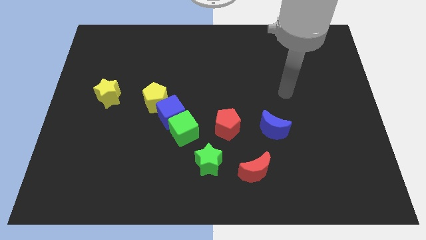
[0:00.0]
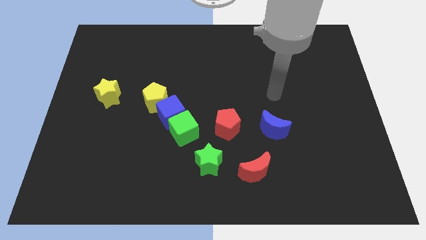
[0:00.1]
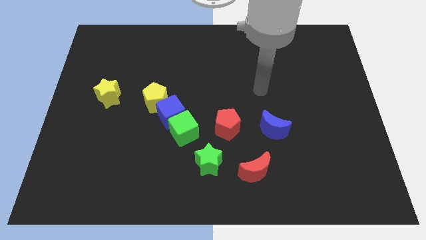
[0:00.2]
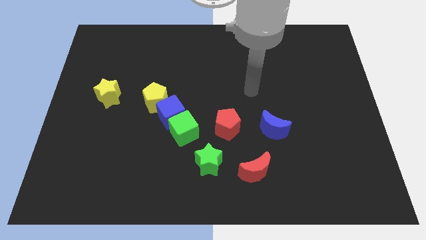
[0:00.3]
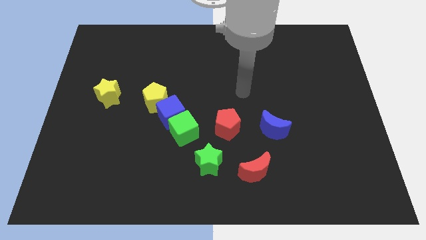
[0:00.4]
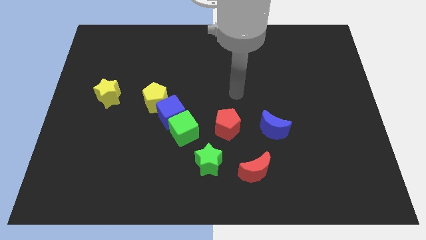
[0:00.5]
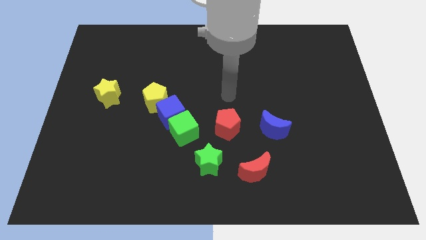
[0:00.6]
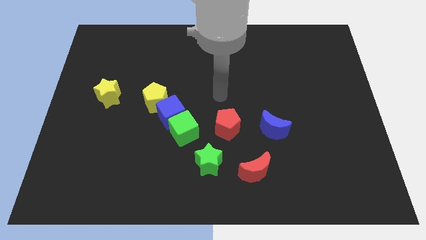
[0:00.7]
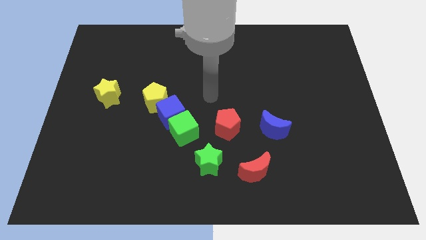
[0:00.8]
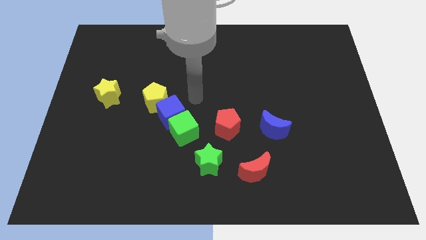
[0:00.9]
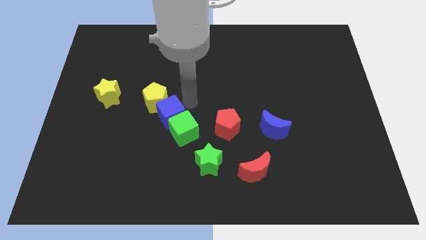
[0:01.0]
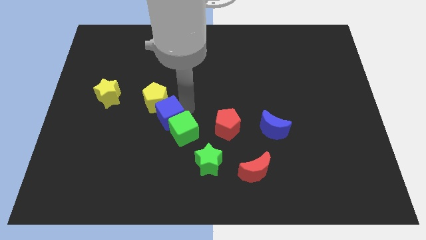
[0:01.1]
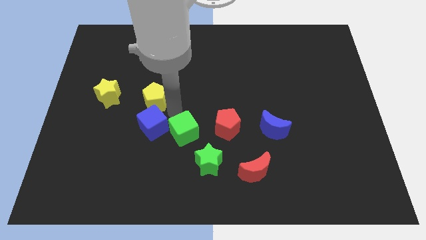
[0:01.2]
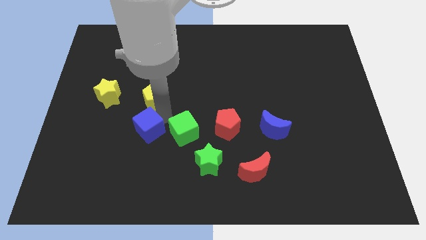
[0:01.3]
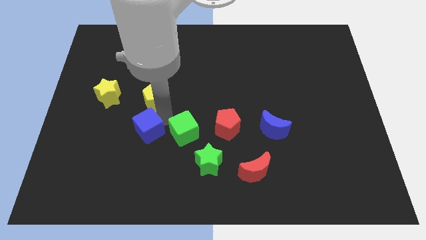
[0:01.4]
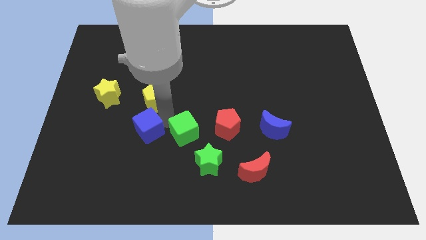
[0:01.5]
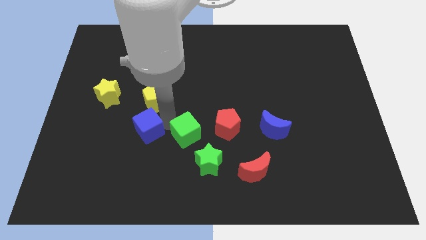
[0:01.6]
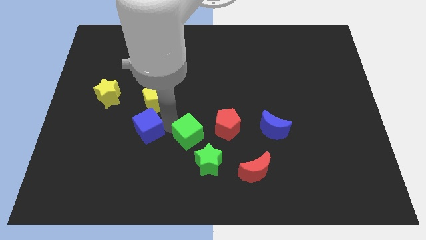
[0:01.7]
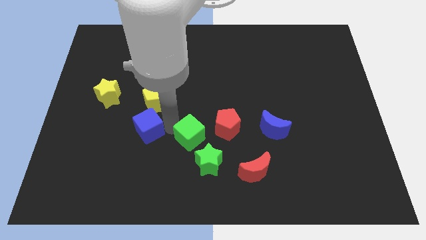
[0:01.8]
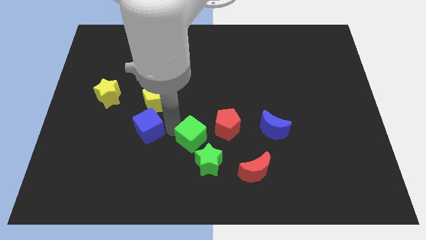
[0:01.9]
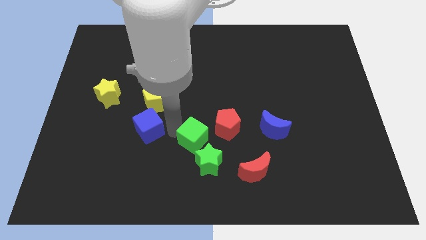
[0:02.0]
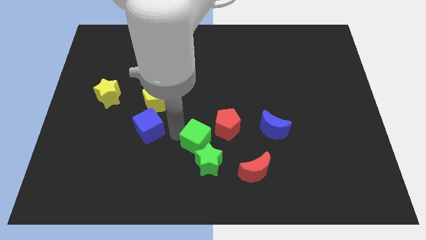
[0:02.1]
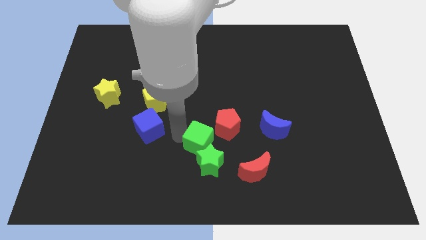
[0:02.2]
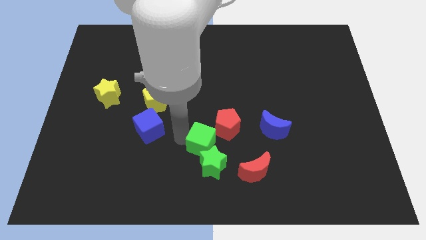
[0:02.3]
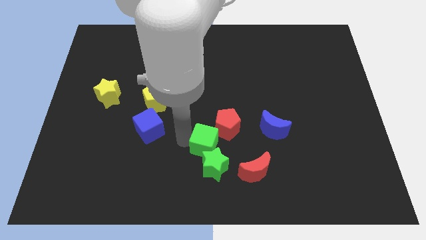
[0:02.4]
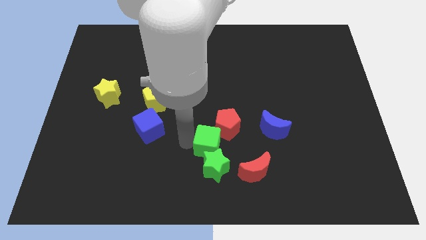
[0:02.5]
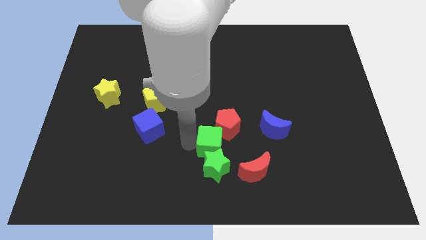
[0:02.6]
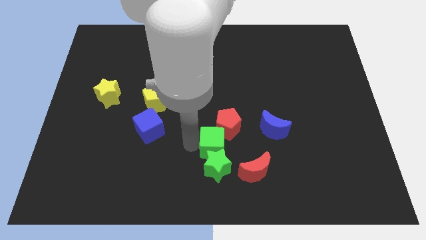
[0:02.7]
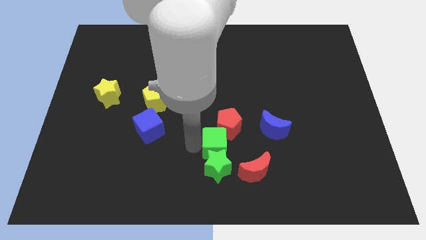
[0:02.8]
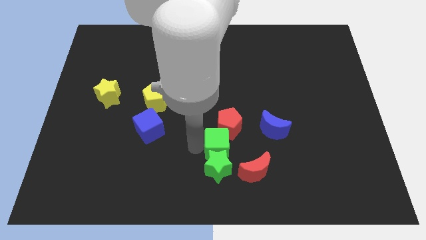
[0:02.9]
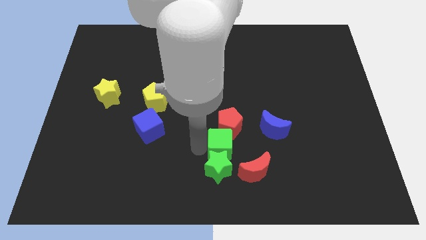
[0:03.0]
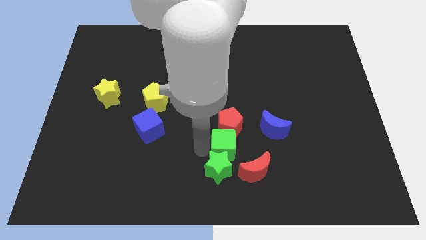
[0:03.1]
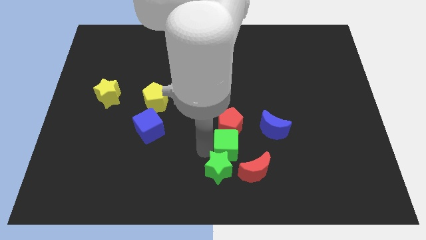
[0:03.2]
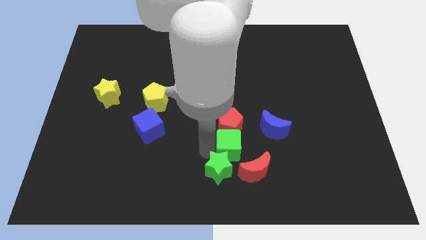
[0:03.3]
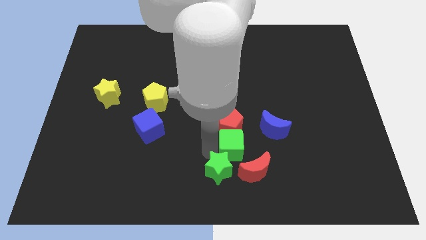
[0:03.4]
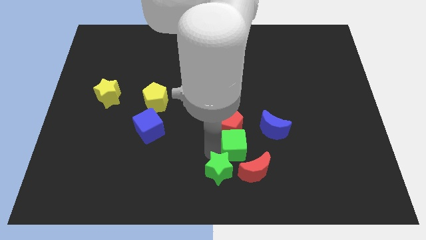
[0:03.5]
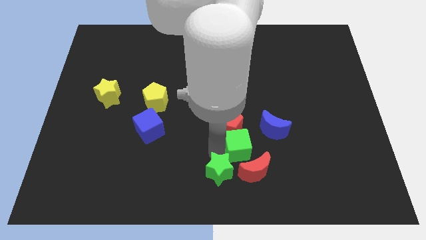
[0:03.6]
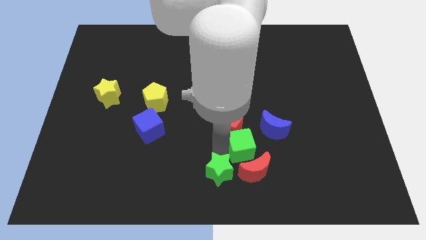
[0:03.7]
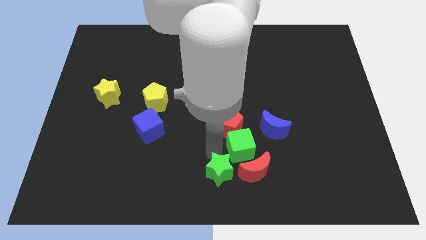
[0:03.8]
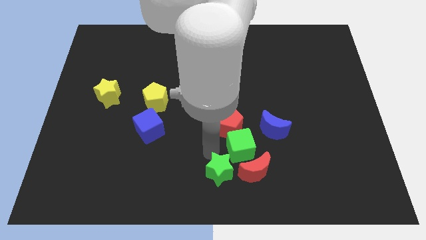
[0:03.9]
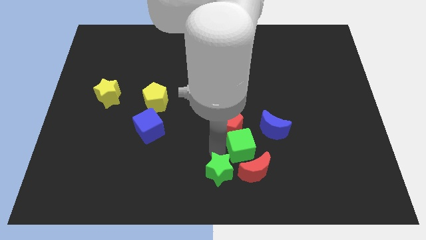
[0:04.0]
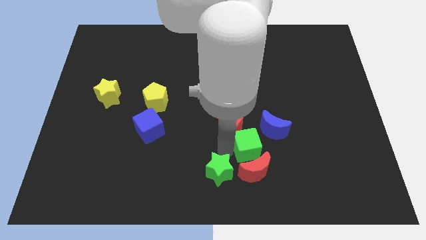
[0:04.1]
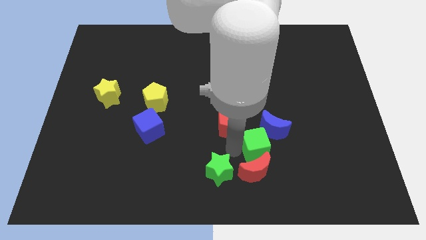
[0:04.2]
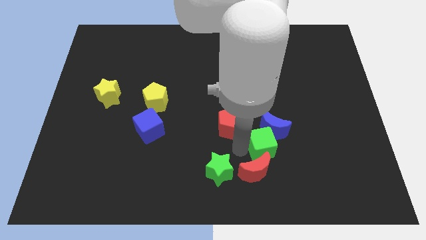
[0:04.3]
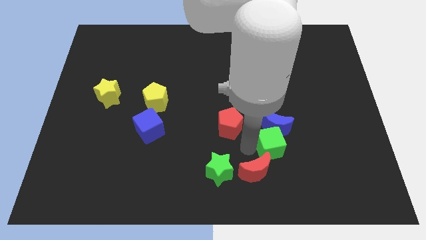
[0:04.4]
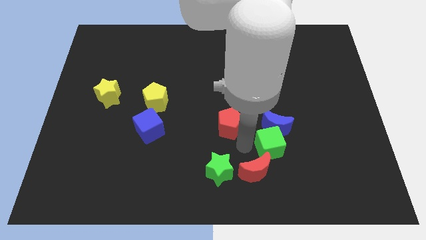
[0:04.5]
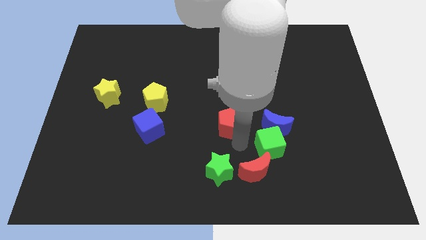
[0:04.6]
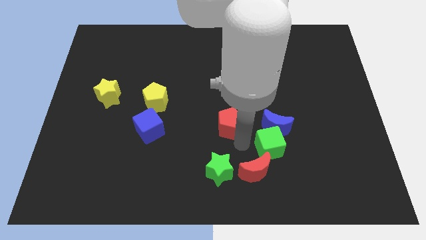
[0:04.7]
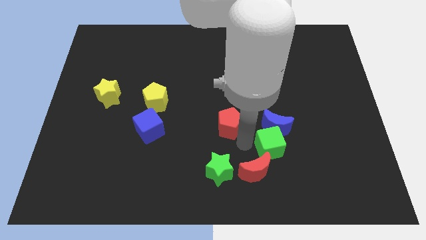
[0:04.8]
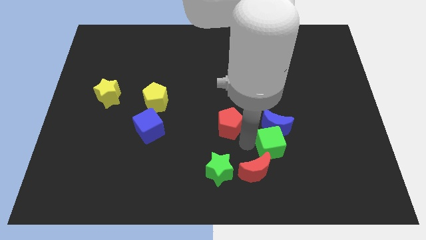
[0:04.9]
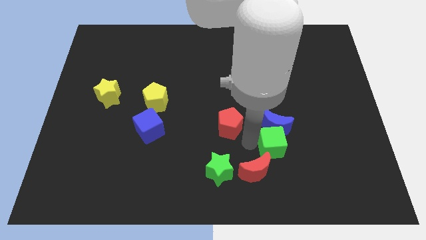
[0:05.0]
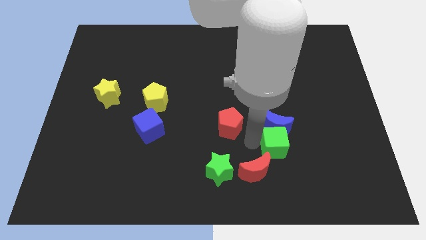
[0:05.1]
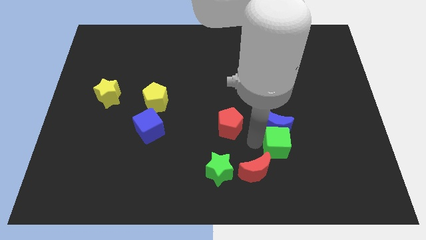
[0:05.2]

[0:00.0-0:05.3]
push the green cube to the right

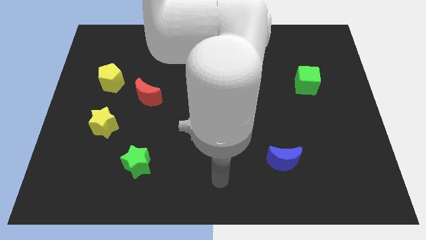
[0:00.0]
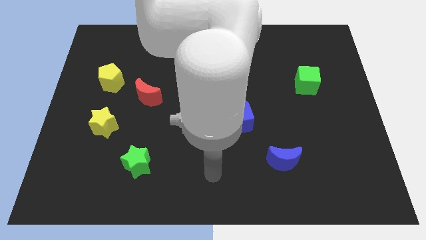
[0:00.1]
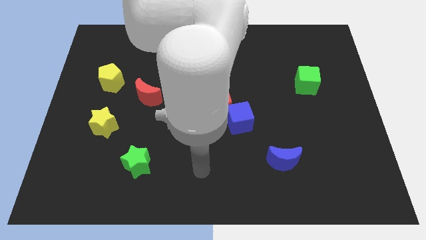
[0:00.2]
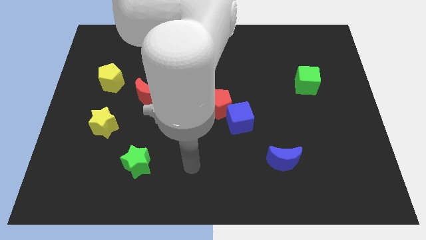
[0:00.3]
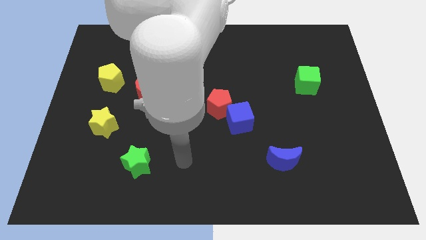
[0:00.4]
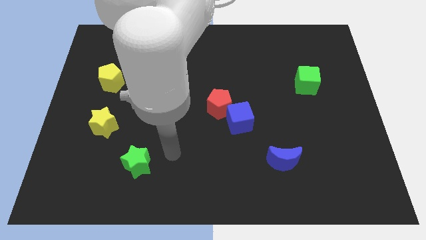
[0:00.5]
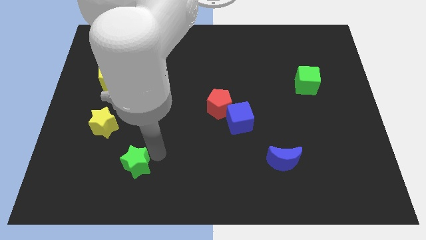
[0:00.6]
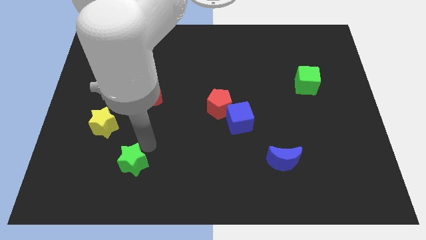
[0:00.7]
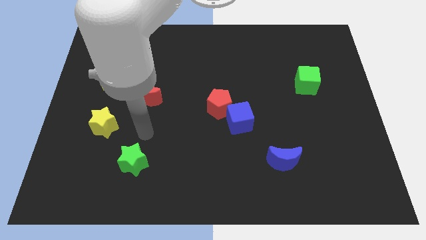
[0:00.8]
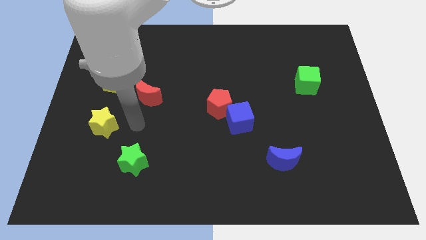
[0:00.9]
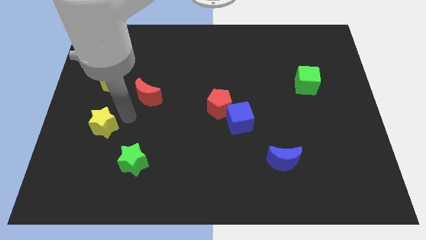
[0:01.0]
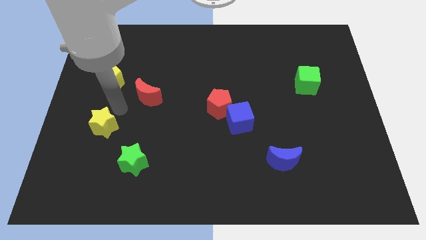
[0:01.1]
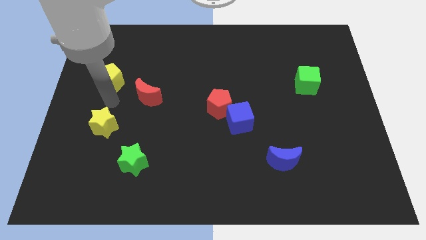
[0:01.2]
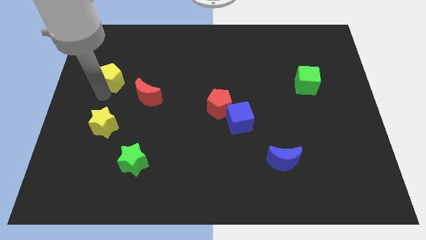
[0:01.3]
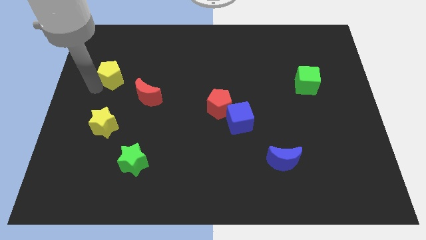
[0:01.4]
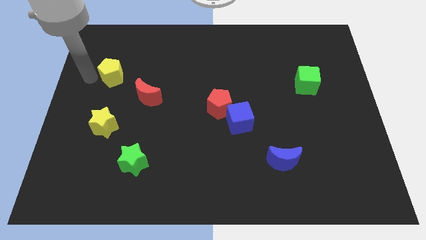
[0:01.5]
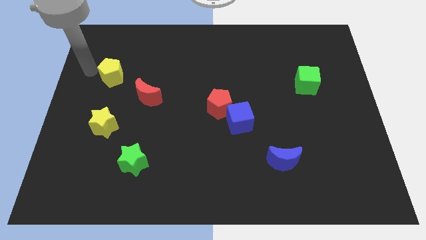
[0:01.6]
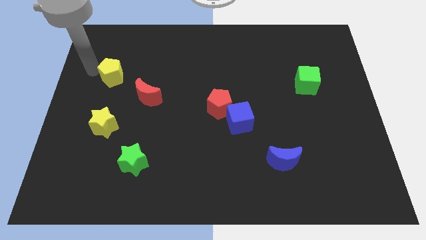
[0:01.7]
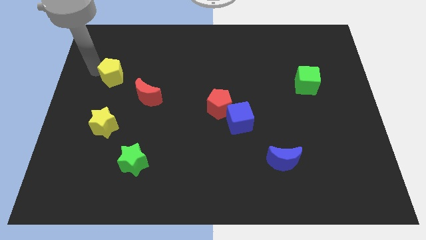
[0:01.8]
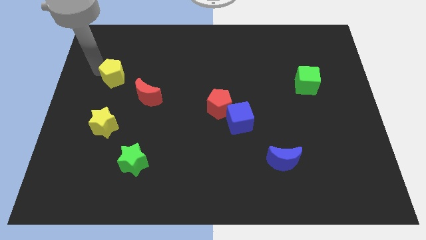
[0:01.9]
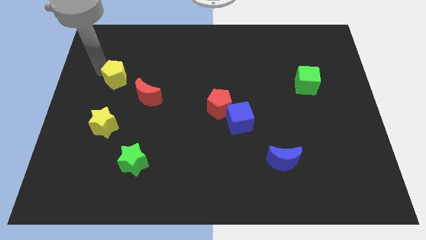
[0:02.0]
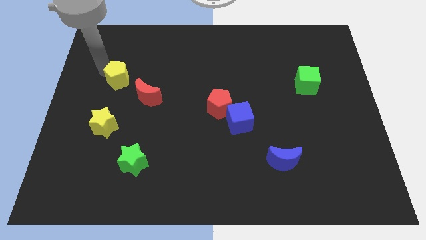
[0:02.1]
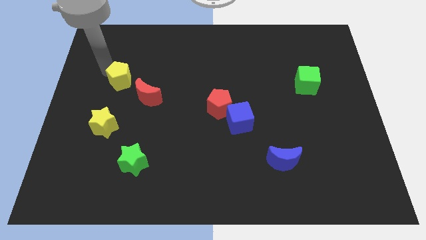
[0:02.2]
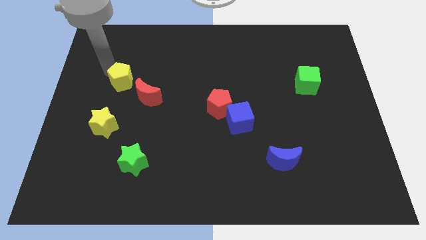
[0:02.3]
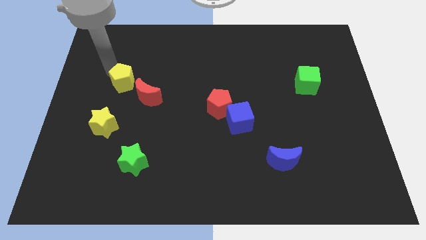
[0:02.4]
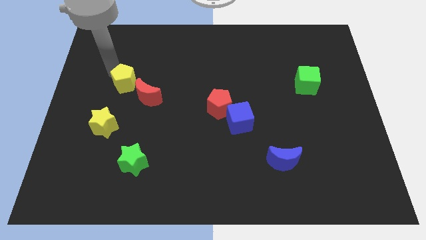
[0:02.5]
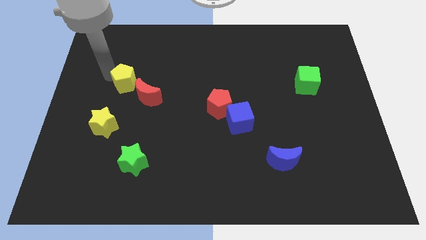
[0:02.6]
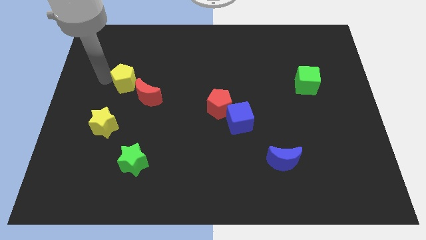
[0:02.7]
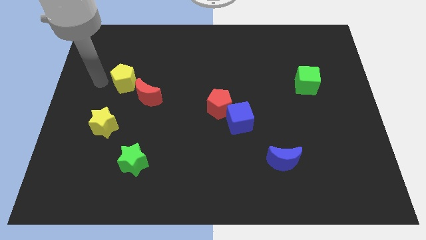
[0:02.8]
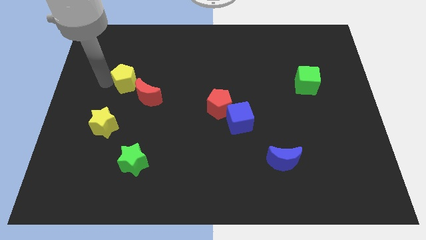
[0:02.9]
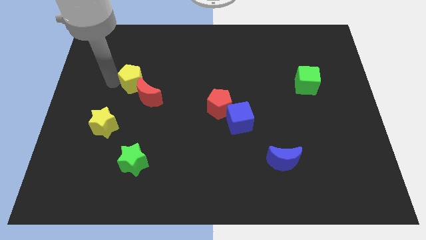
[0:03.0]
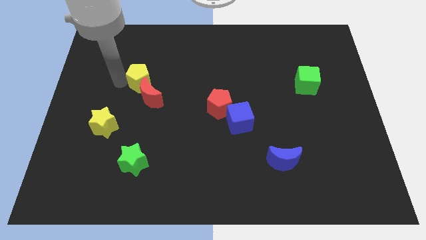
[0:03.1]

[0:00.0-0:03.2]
slide the yellow pentagon right slightly
